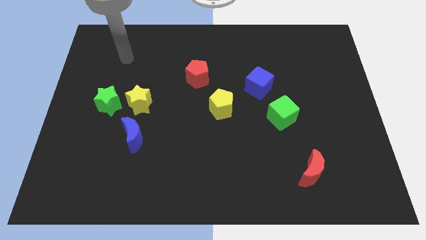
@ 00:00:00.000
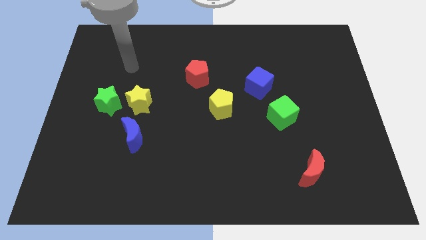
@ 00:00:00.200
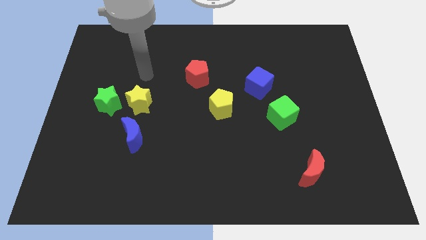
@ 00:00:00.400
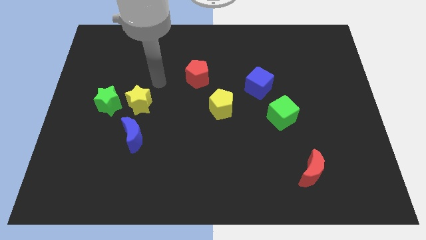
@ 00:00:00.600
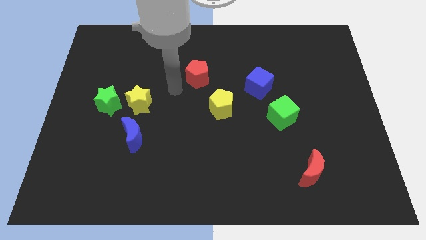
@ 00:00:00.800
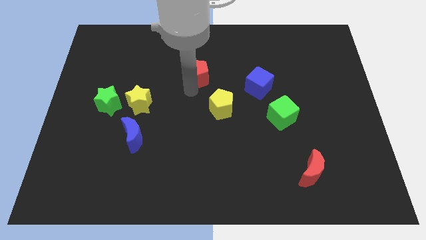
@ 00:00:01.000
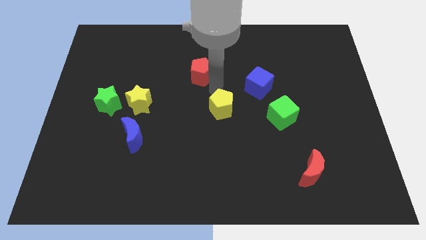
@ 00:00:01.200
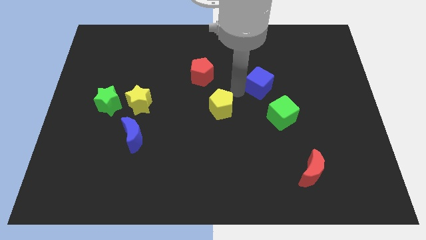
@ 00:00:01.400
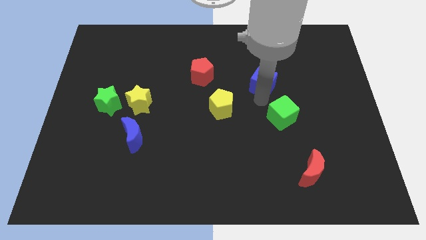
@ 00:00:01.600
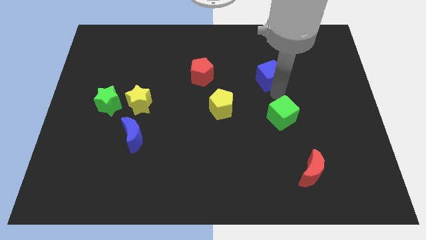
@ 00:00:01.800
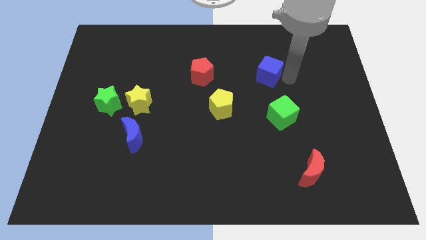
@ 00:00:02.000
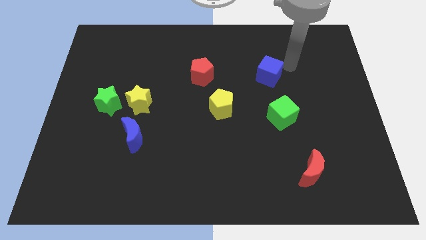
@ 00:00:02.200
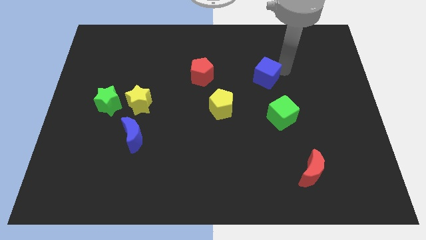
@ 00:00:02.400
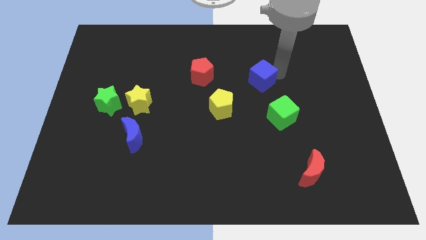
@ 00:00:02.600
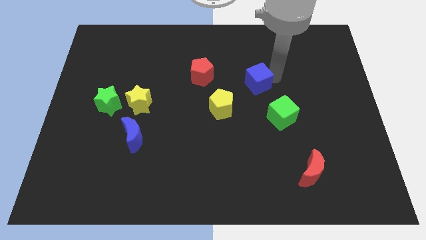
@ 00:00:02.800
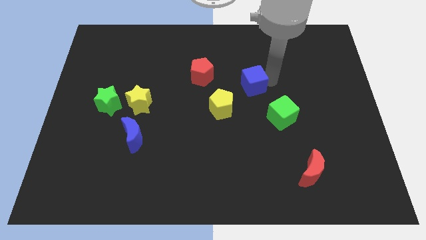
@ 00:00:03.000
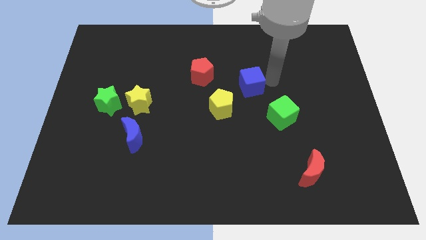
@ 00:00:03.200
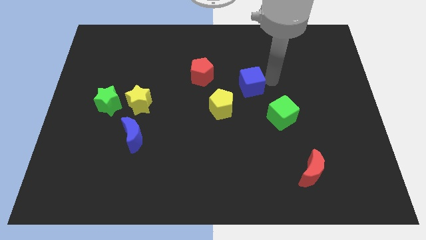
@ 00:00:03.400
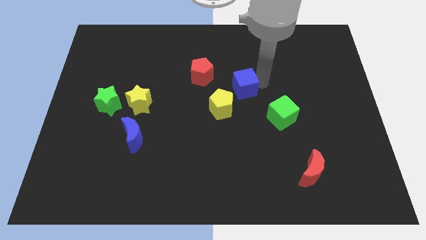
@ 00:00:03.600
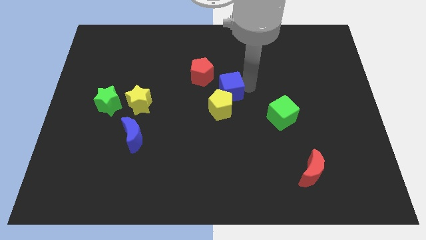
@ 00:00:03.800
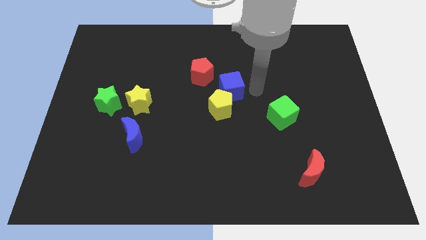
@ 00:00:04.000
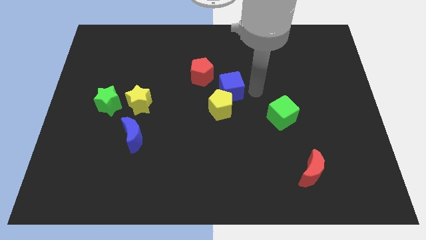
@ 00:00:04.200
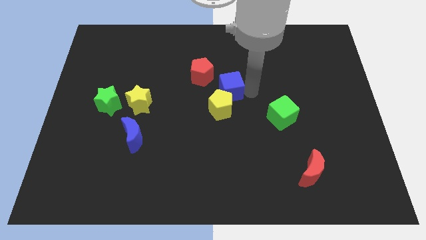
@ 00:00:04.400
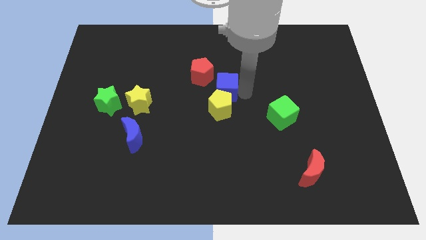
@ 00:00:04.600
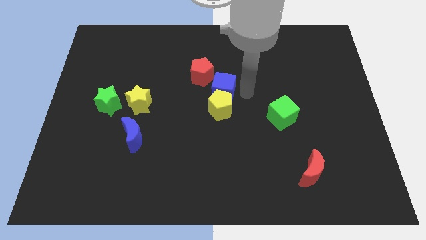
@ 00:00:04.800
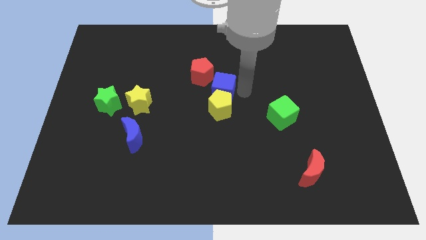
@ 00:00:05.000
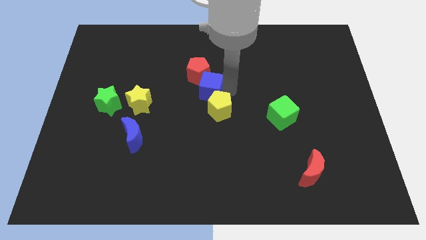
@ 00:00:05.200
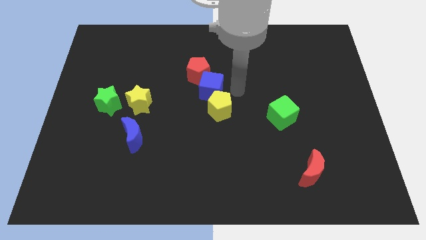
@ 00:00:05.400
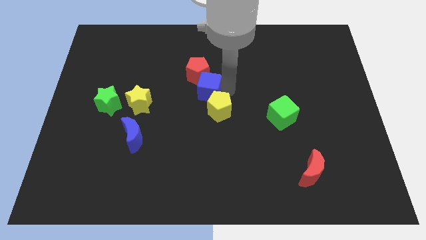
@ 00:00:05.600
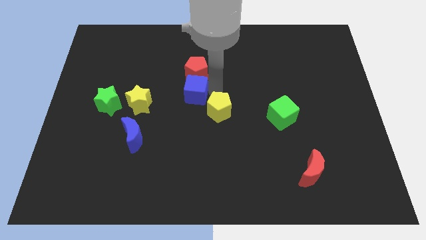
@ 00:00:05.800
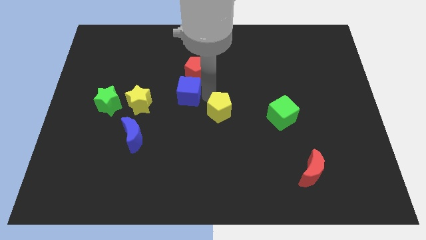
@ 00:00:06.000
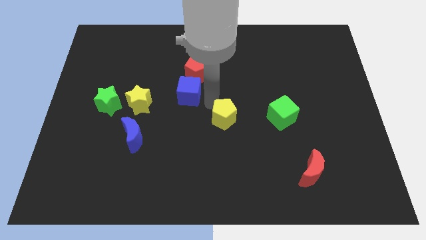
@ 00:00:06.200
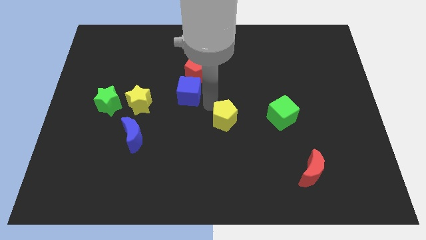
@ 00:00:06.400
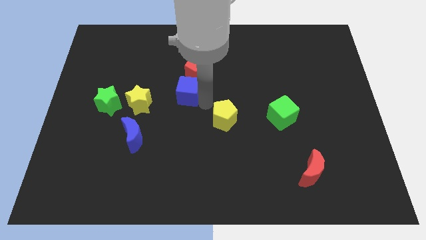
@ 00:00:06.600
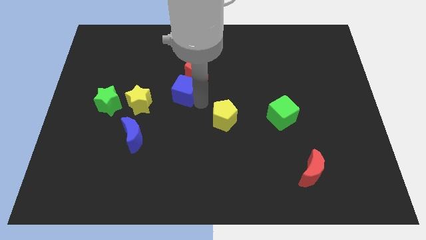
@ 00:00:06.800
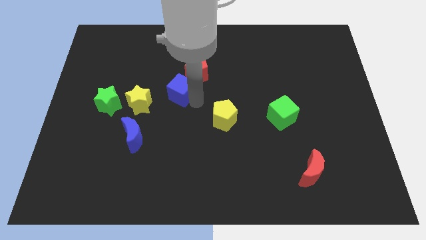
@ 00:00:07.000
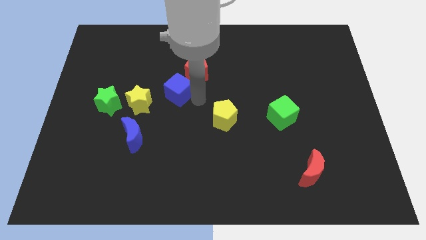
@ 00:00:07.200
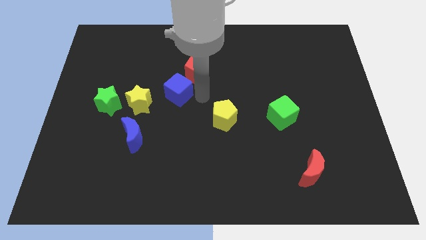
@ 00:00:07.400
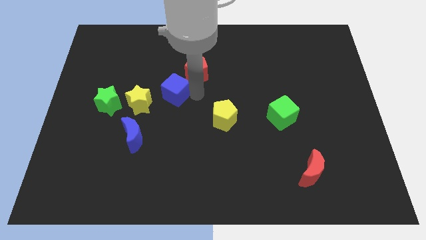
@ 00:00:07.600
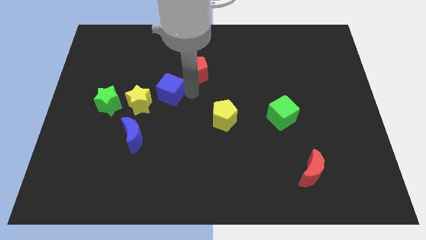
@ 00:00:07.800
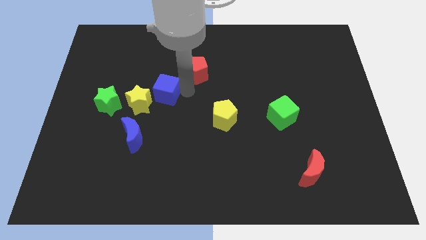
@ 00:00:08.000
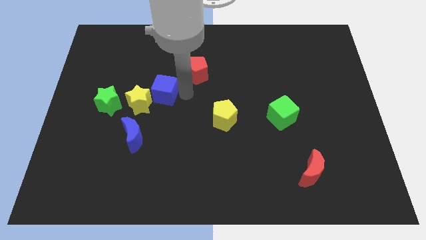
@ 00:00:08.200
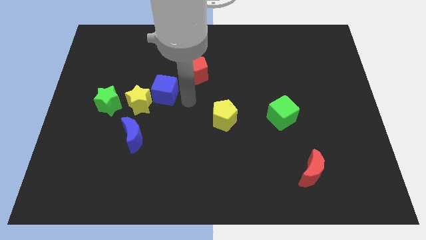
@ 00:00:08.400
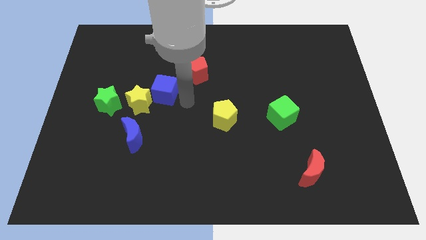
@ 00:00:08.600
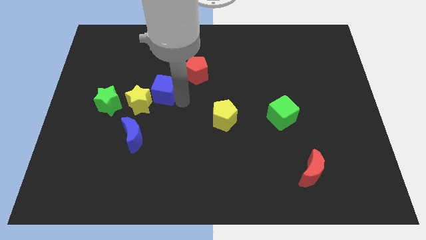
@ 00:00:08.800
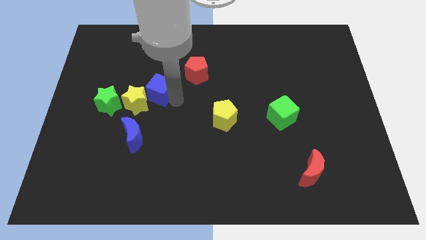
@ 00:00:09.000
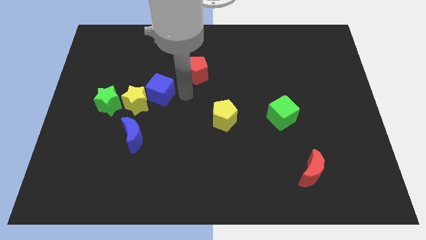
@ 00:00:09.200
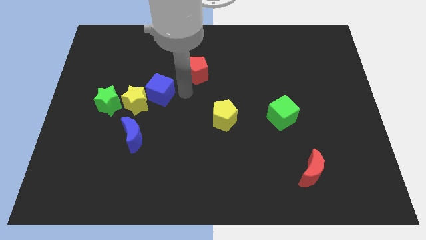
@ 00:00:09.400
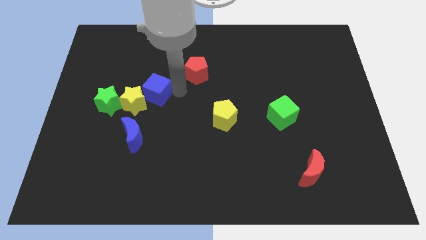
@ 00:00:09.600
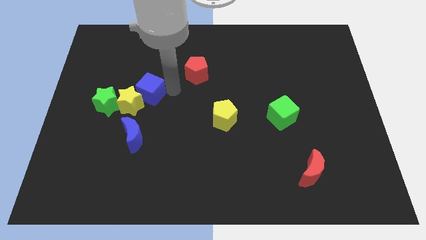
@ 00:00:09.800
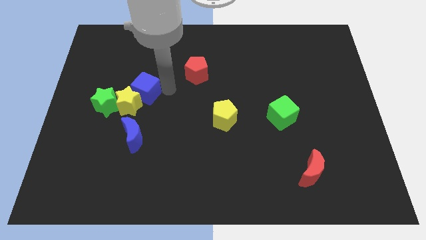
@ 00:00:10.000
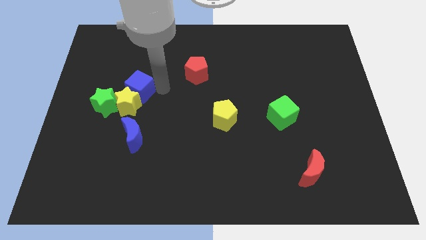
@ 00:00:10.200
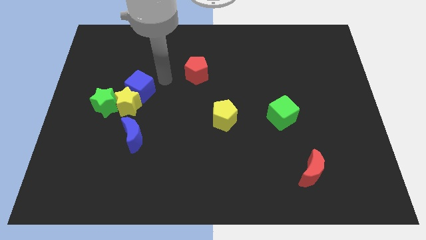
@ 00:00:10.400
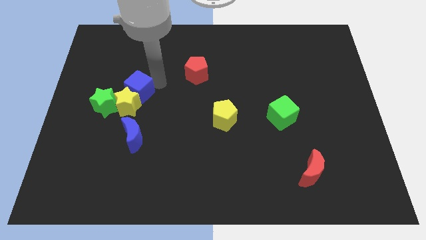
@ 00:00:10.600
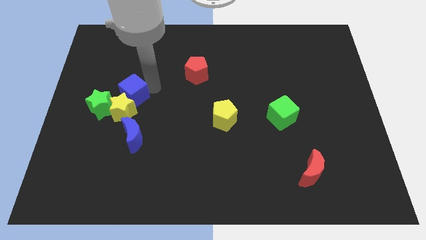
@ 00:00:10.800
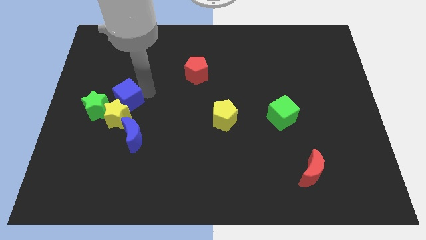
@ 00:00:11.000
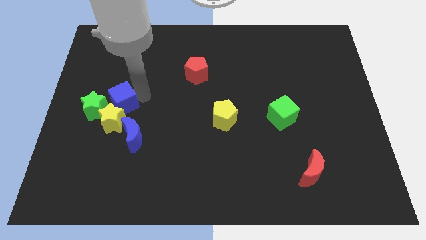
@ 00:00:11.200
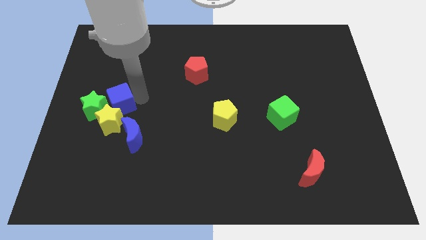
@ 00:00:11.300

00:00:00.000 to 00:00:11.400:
slide the blue cube next to the green star
